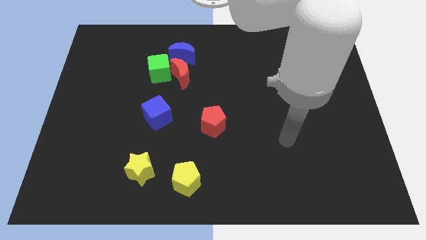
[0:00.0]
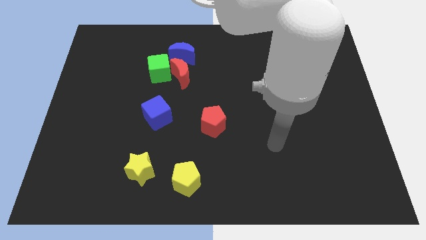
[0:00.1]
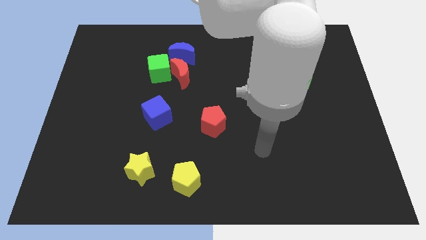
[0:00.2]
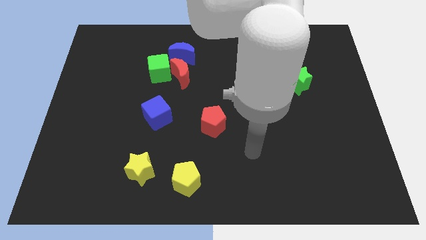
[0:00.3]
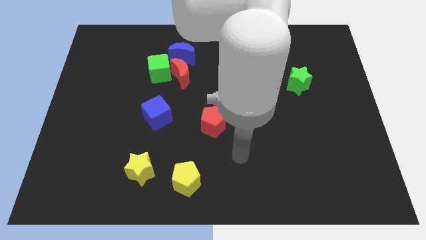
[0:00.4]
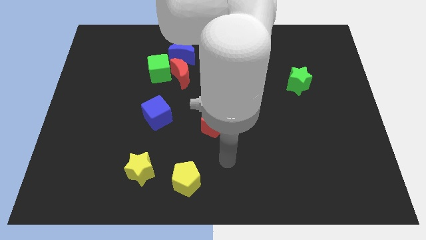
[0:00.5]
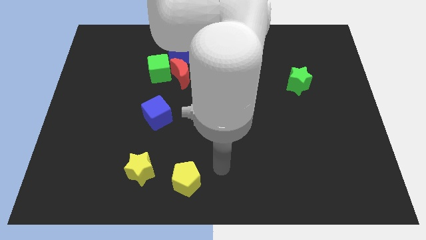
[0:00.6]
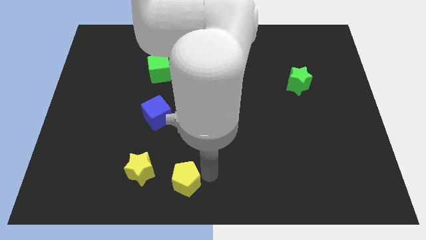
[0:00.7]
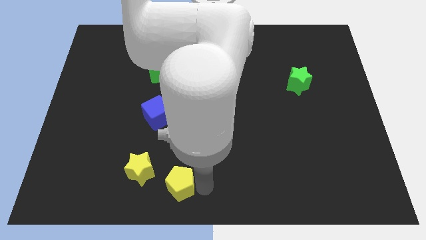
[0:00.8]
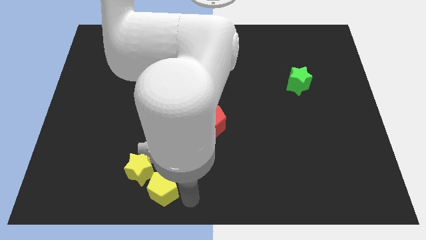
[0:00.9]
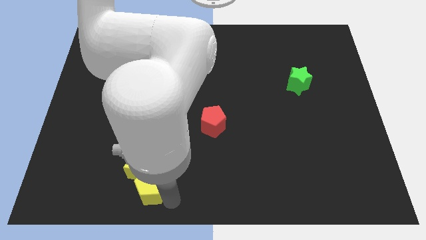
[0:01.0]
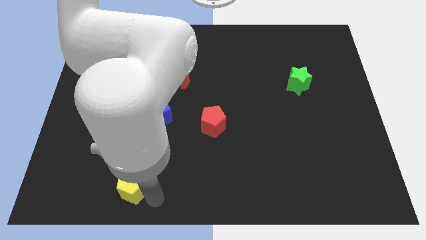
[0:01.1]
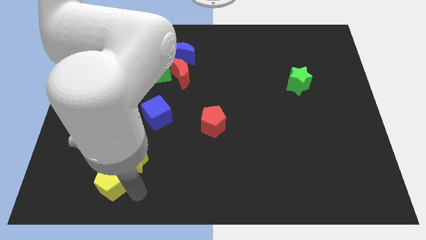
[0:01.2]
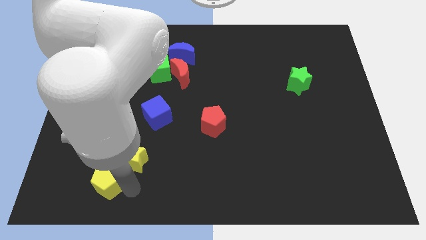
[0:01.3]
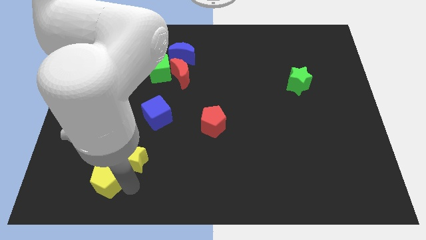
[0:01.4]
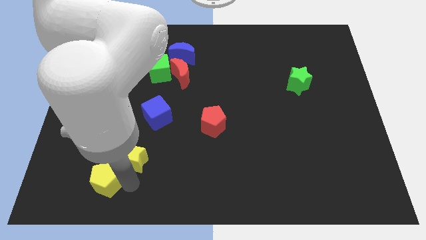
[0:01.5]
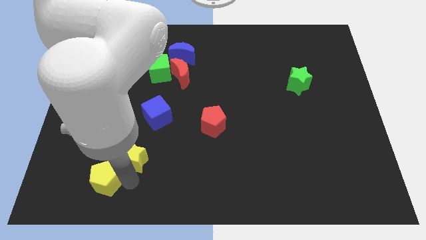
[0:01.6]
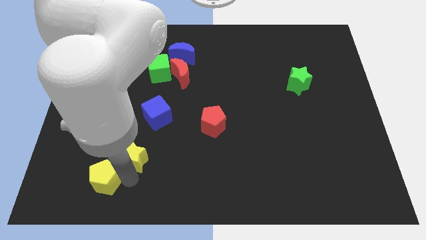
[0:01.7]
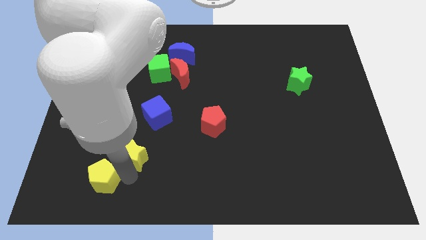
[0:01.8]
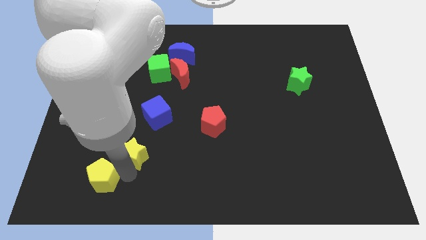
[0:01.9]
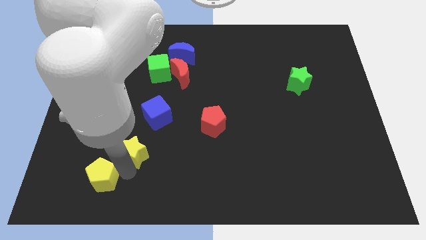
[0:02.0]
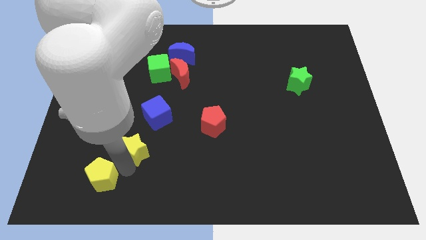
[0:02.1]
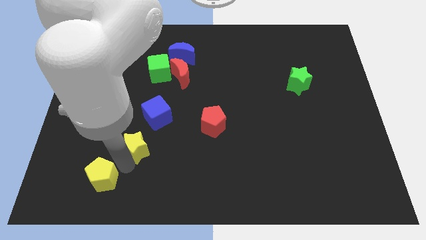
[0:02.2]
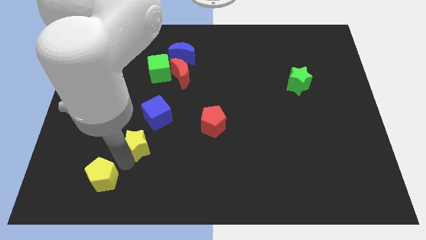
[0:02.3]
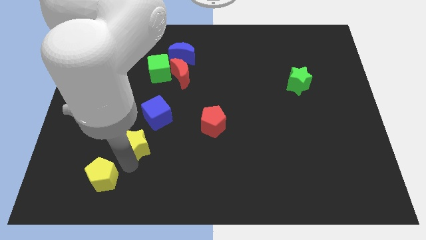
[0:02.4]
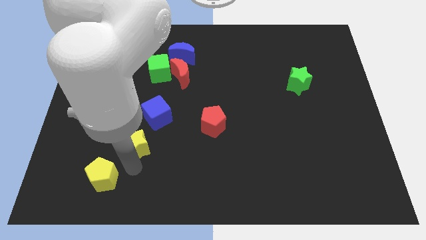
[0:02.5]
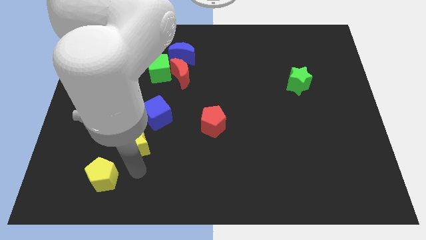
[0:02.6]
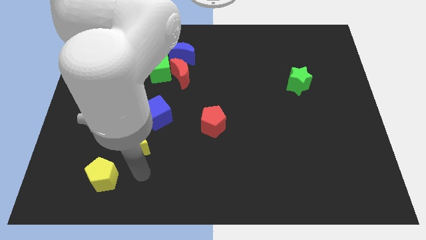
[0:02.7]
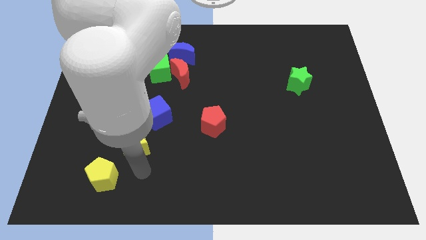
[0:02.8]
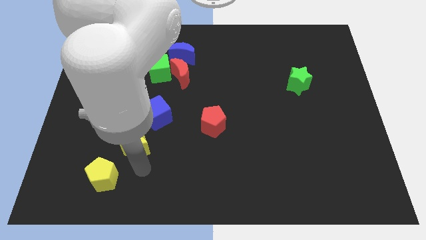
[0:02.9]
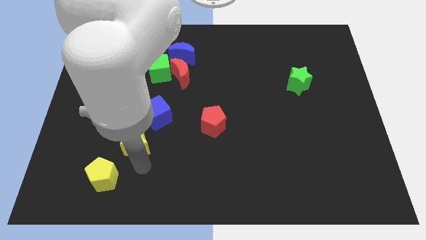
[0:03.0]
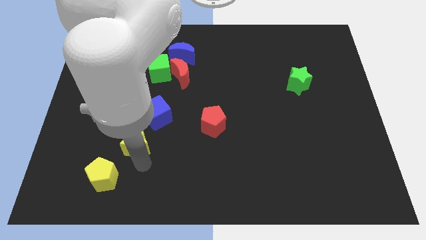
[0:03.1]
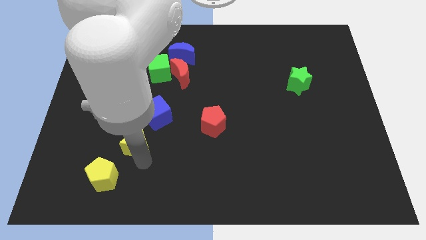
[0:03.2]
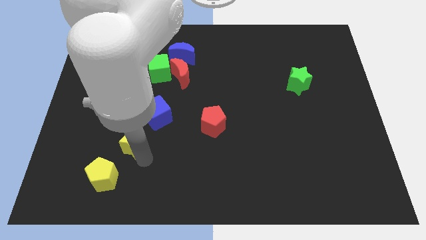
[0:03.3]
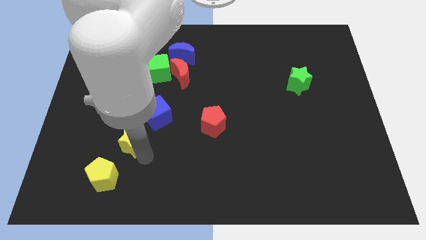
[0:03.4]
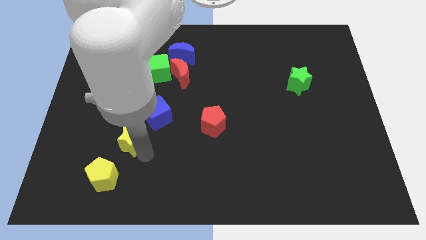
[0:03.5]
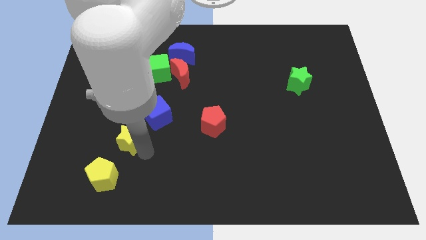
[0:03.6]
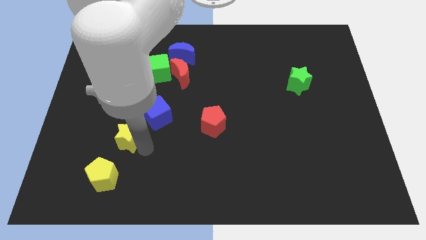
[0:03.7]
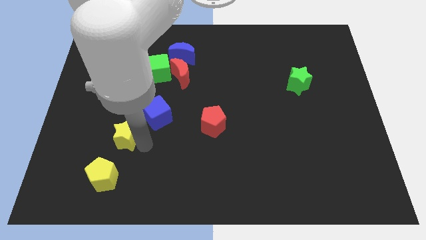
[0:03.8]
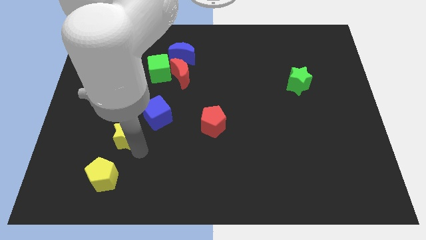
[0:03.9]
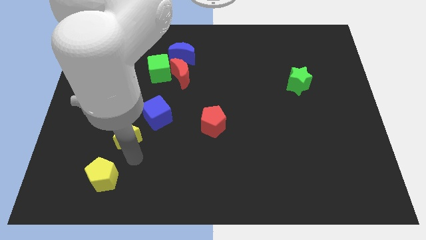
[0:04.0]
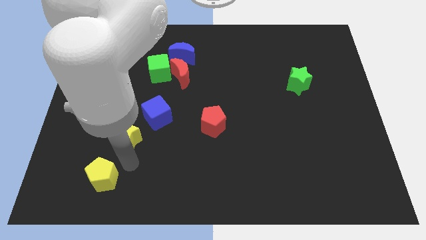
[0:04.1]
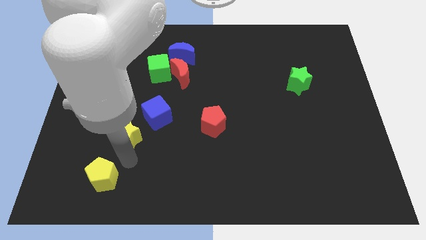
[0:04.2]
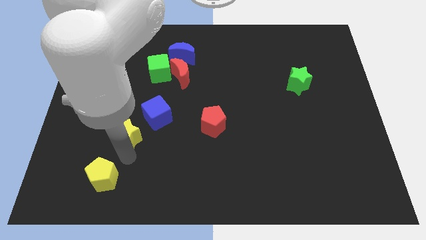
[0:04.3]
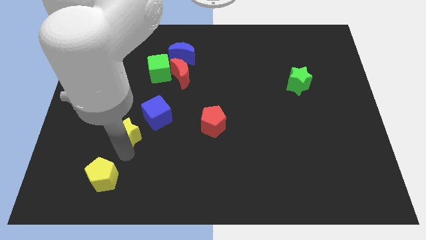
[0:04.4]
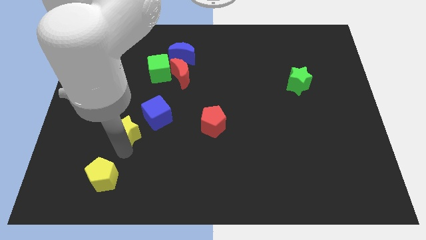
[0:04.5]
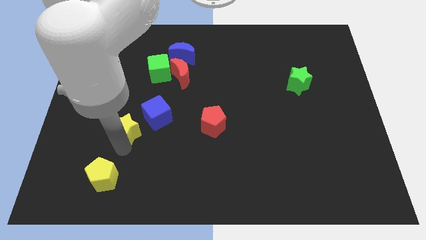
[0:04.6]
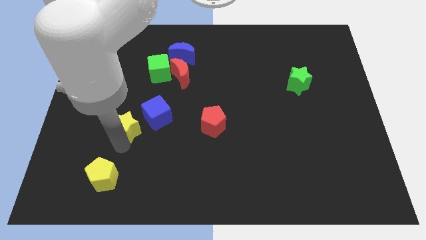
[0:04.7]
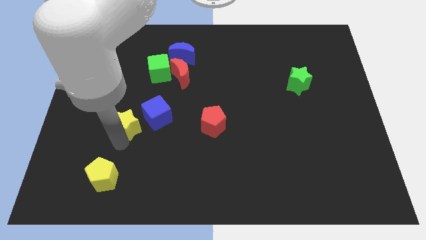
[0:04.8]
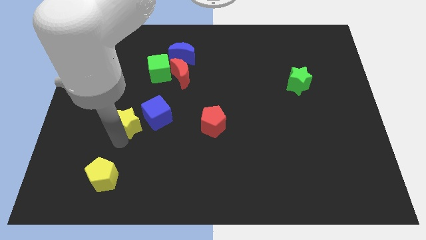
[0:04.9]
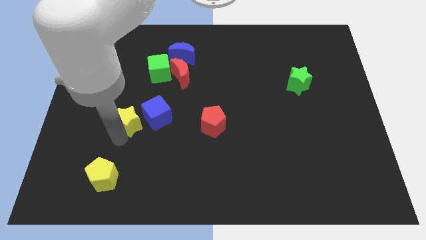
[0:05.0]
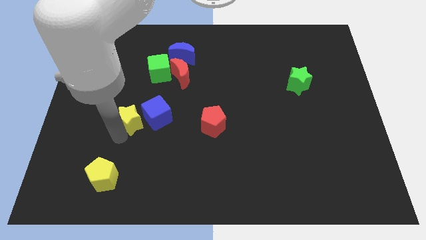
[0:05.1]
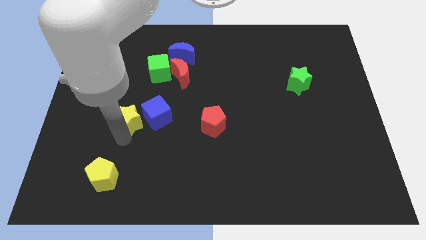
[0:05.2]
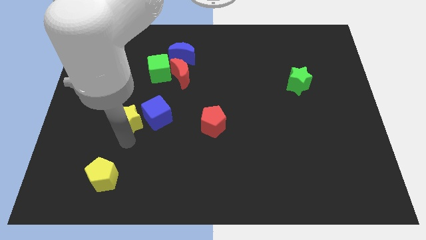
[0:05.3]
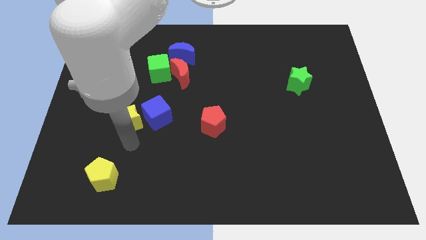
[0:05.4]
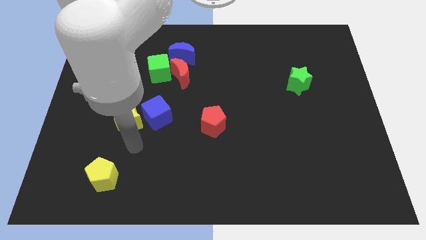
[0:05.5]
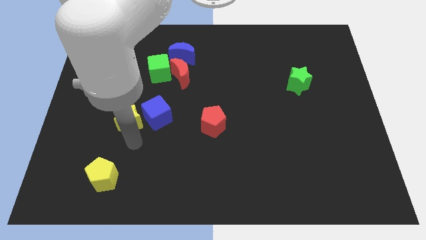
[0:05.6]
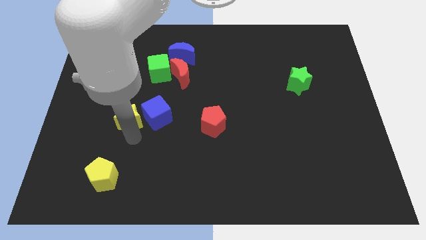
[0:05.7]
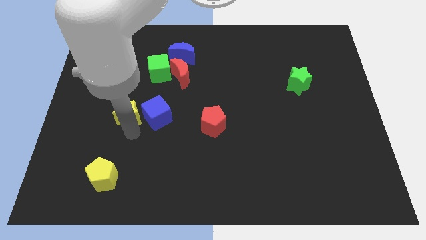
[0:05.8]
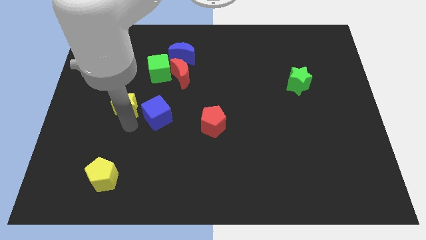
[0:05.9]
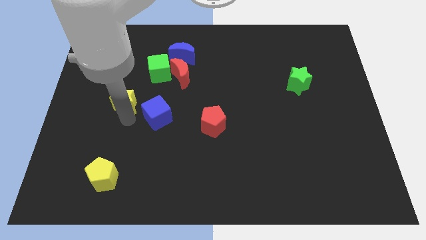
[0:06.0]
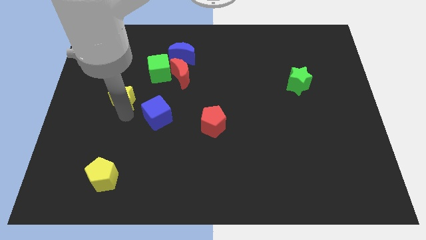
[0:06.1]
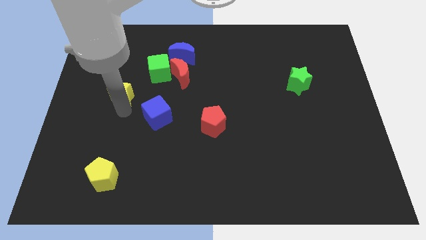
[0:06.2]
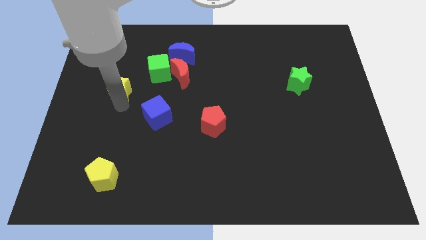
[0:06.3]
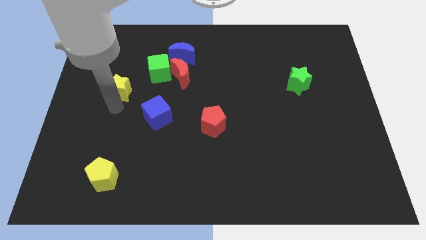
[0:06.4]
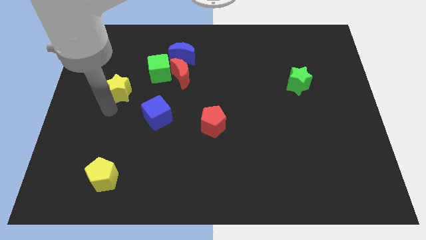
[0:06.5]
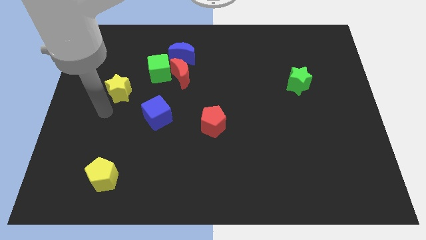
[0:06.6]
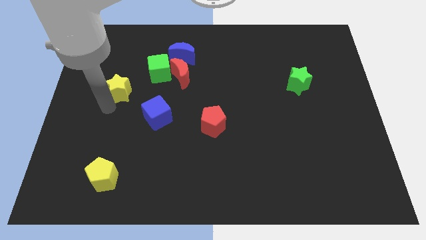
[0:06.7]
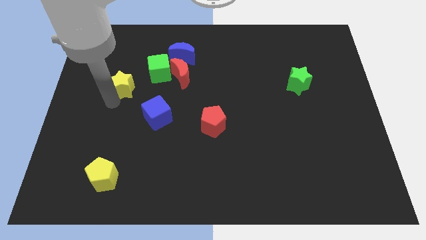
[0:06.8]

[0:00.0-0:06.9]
move the yellow star up

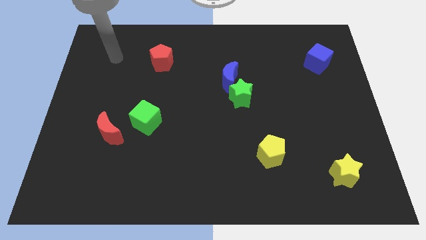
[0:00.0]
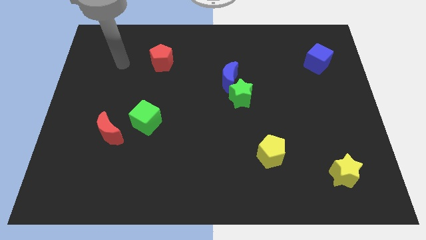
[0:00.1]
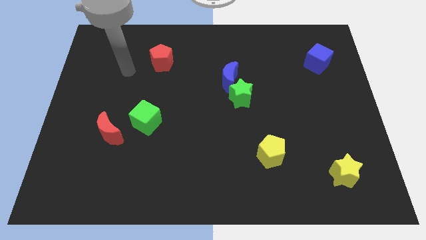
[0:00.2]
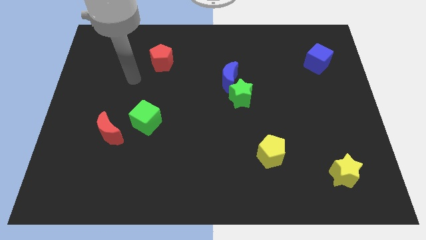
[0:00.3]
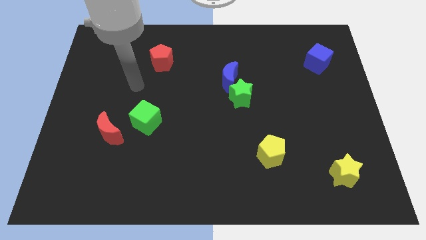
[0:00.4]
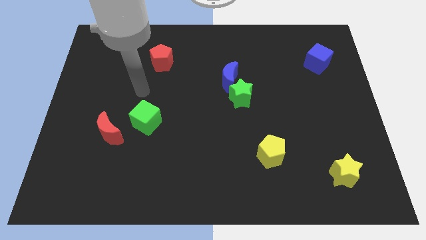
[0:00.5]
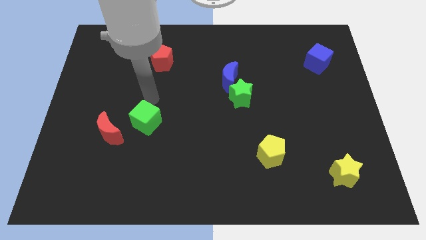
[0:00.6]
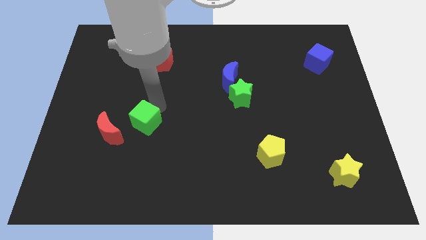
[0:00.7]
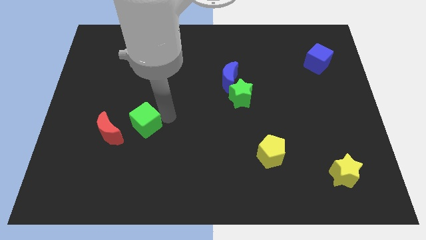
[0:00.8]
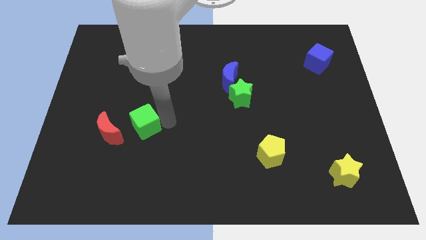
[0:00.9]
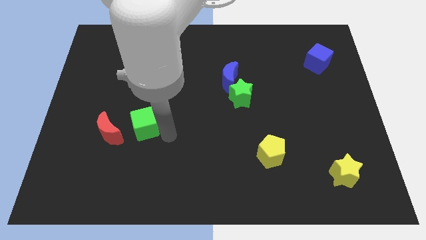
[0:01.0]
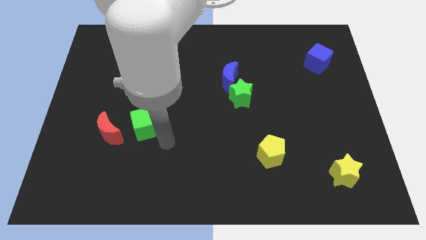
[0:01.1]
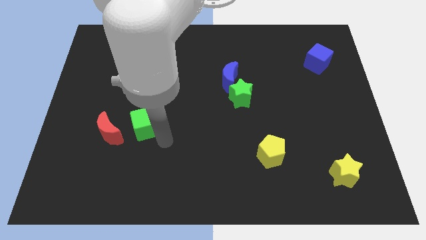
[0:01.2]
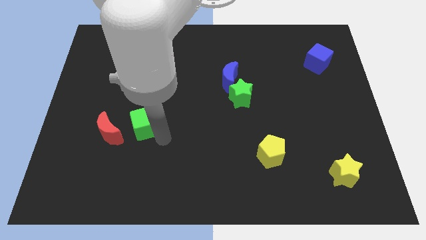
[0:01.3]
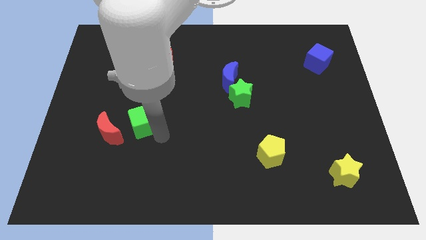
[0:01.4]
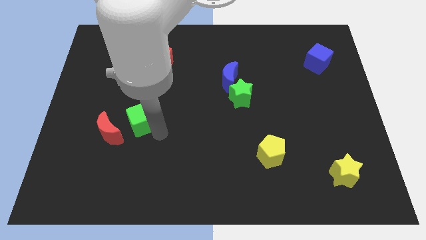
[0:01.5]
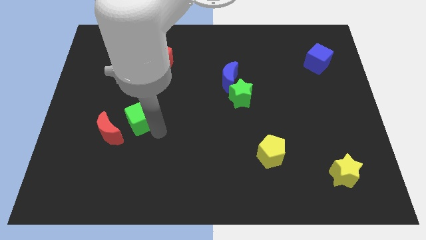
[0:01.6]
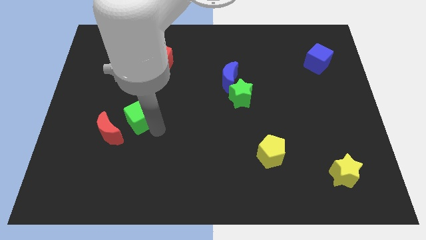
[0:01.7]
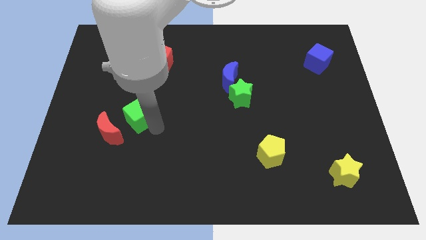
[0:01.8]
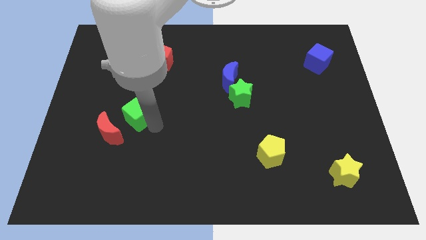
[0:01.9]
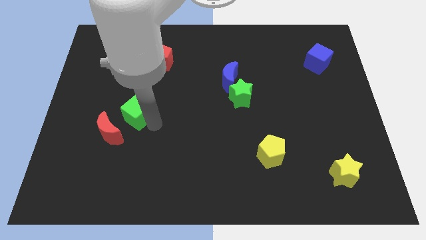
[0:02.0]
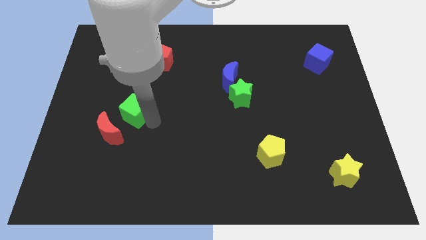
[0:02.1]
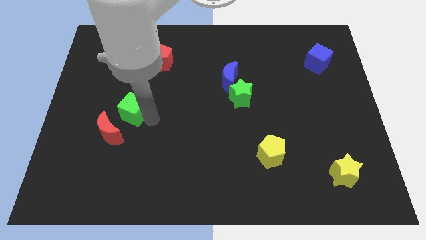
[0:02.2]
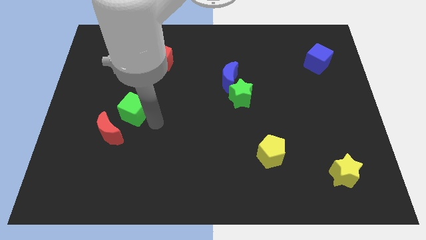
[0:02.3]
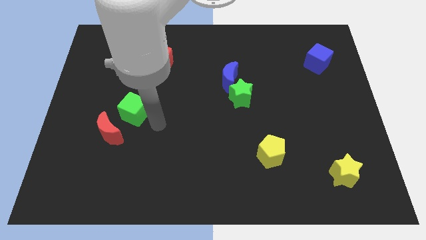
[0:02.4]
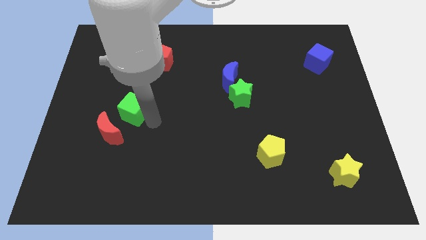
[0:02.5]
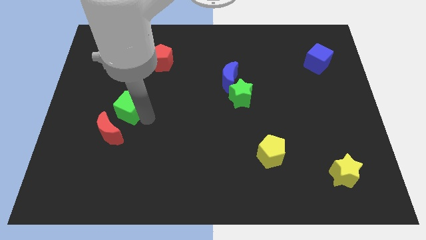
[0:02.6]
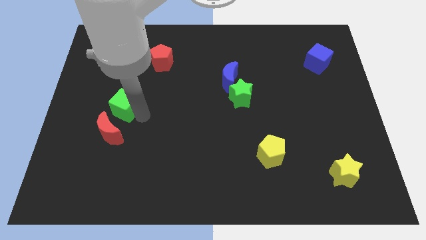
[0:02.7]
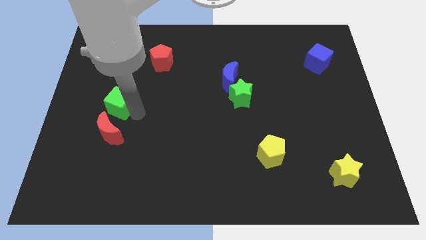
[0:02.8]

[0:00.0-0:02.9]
push the green cube a little bit up and then left
